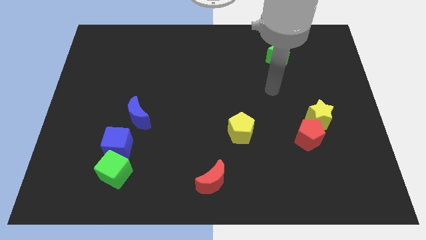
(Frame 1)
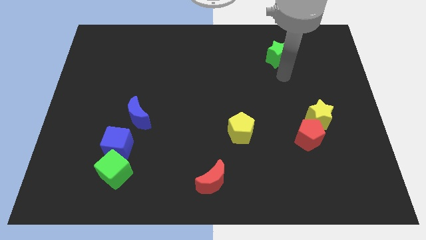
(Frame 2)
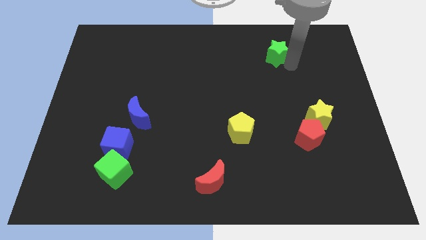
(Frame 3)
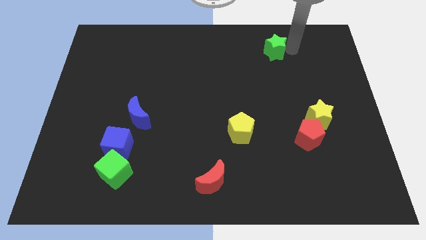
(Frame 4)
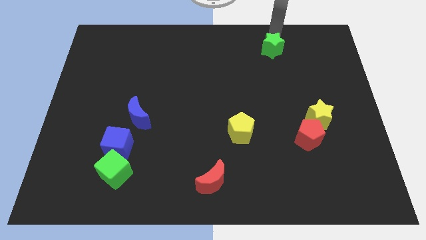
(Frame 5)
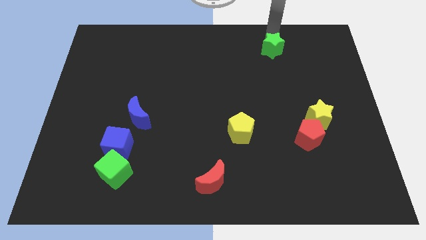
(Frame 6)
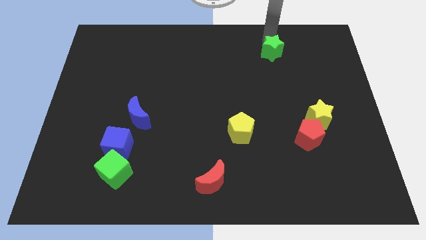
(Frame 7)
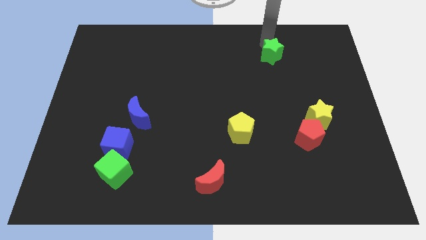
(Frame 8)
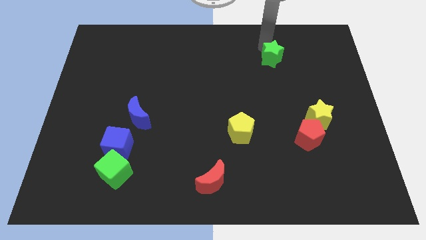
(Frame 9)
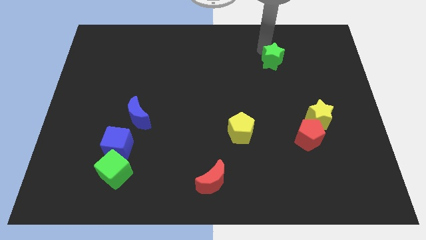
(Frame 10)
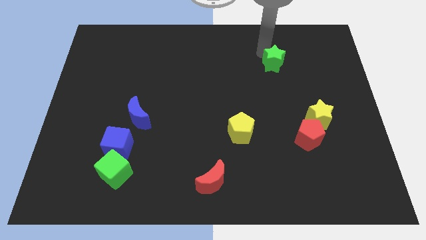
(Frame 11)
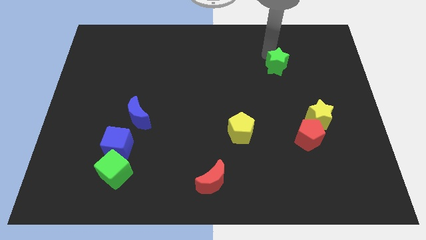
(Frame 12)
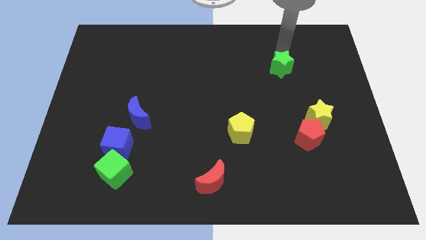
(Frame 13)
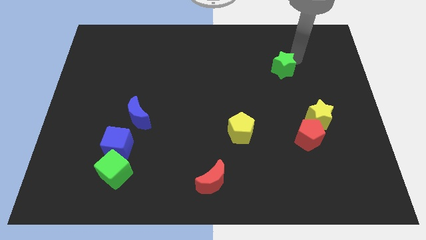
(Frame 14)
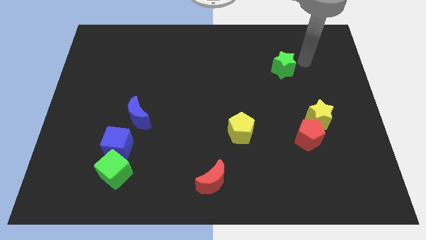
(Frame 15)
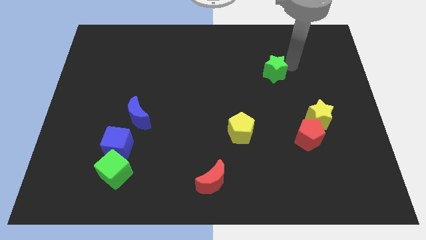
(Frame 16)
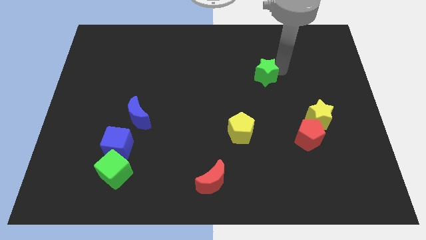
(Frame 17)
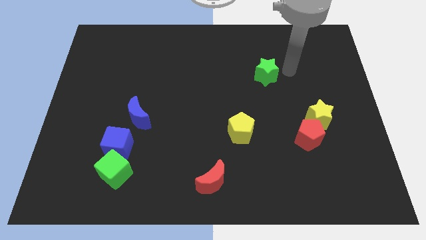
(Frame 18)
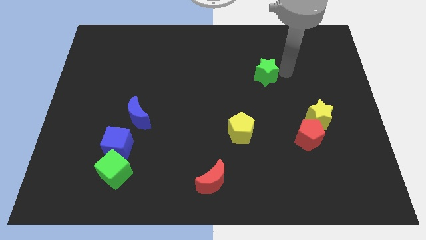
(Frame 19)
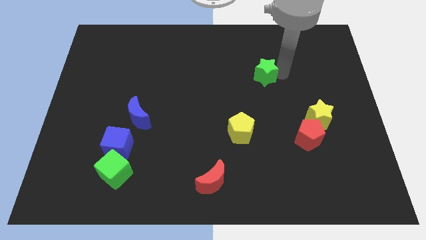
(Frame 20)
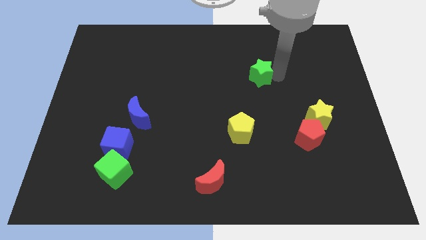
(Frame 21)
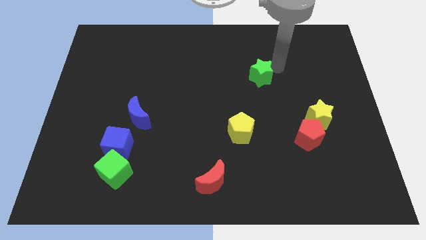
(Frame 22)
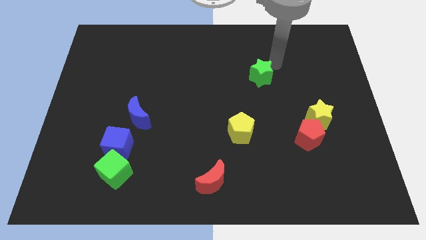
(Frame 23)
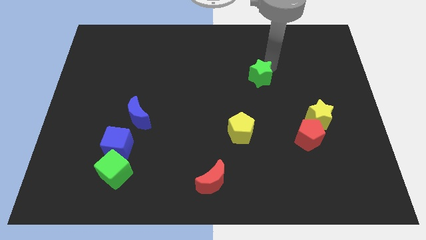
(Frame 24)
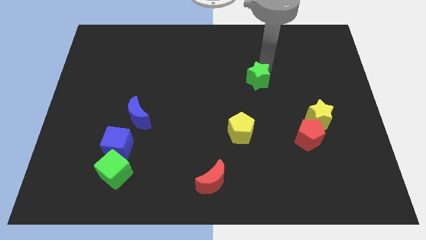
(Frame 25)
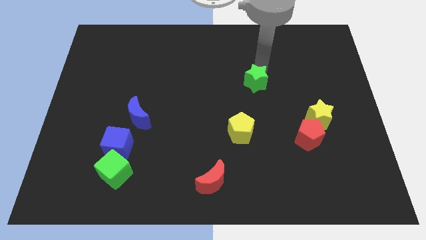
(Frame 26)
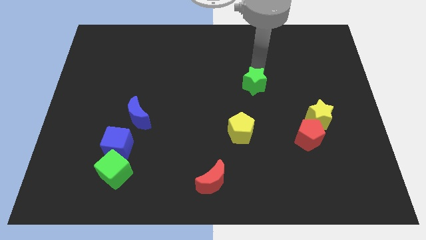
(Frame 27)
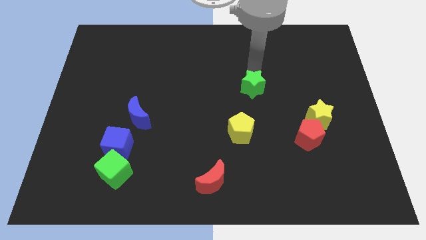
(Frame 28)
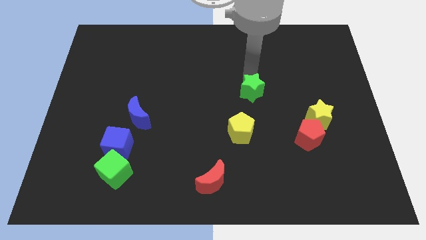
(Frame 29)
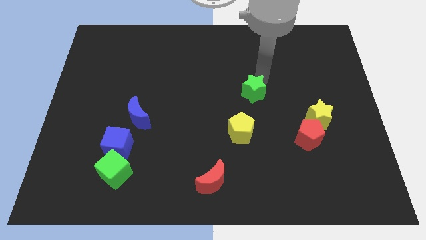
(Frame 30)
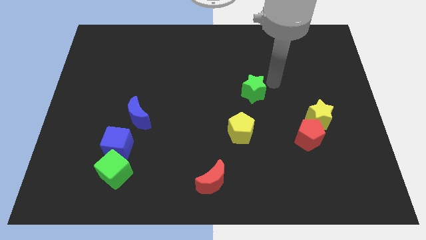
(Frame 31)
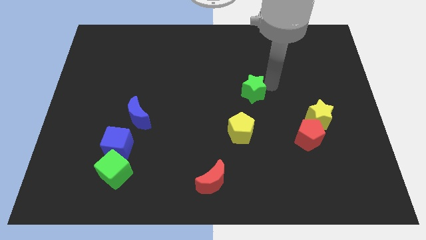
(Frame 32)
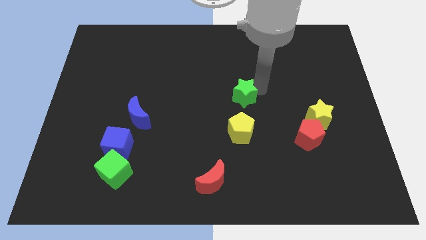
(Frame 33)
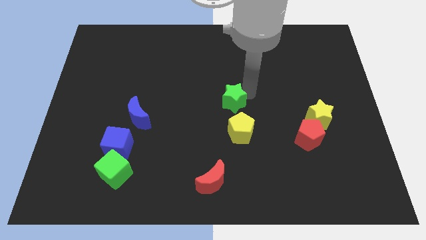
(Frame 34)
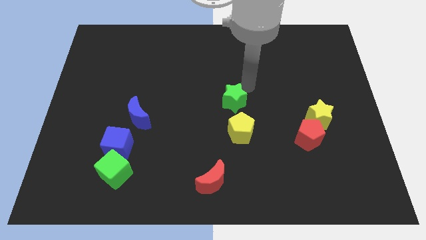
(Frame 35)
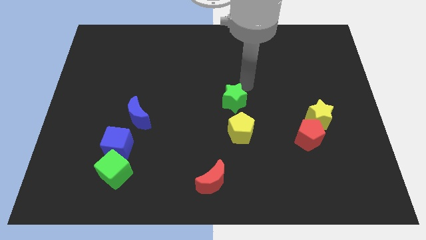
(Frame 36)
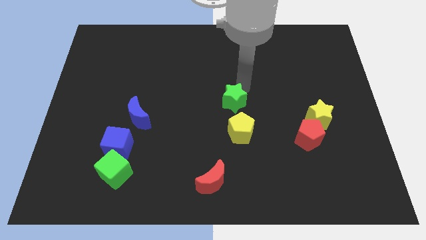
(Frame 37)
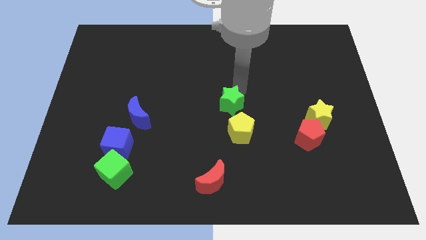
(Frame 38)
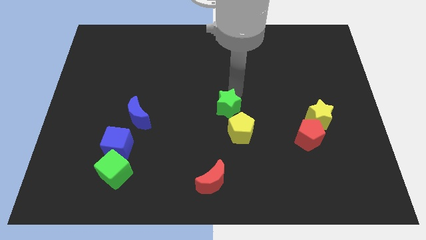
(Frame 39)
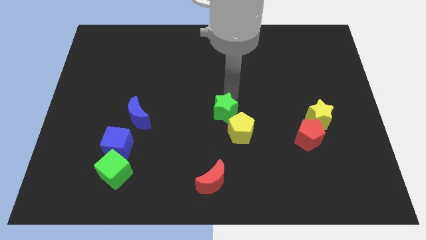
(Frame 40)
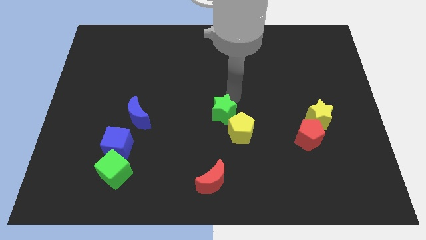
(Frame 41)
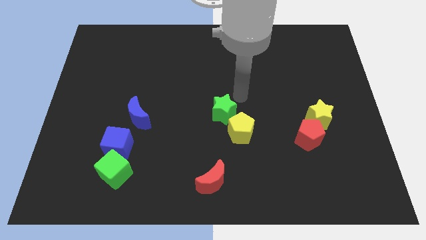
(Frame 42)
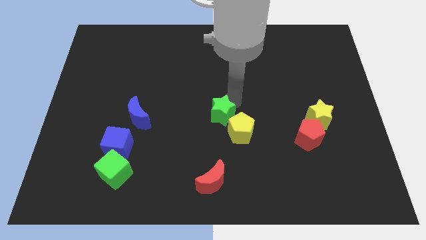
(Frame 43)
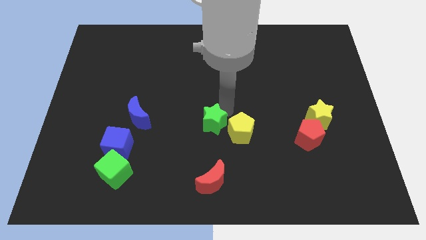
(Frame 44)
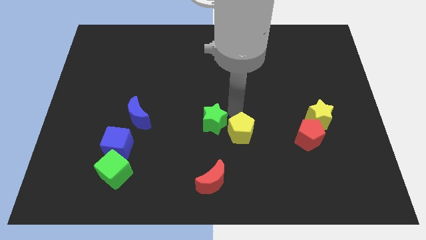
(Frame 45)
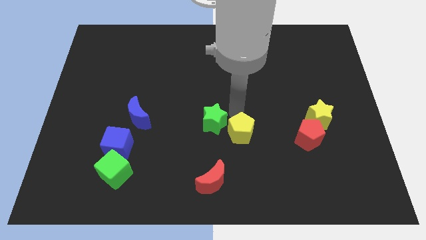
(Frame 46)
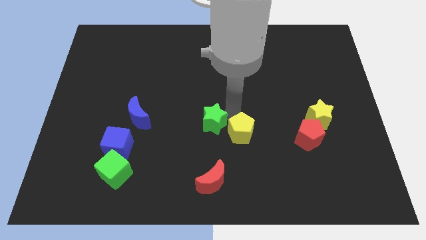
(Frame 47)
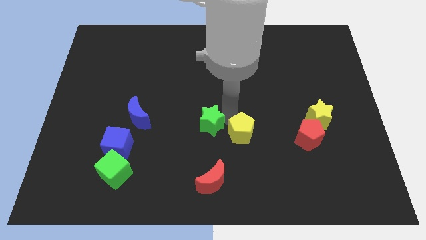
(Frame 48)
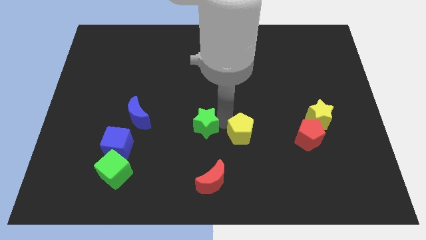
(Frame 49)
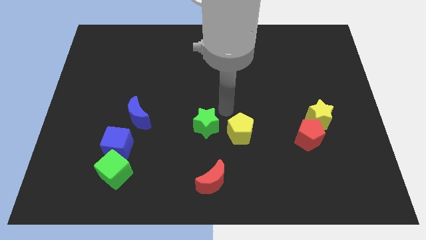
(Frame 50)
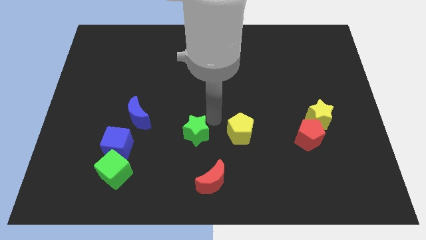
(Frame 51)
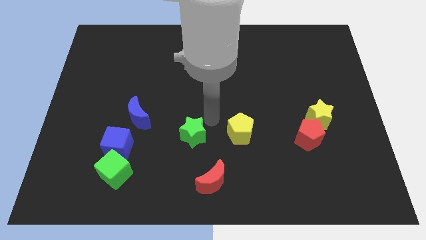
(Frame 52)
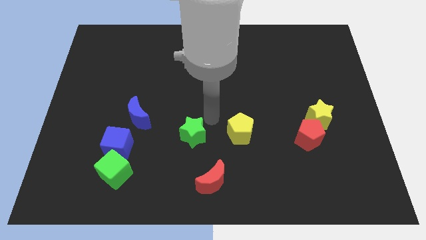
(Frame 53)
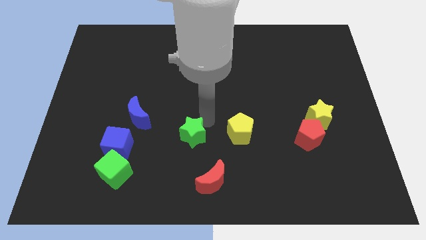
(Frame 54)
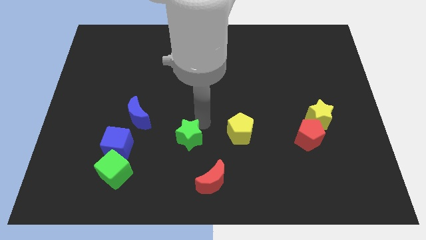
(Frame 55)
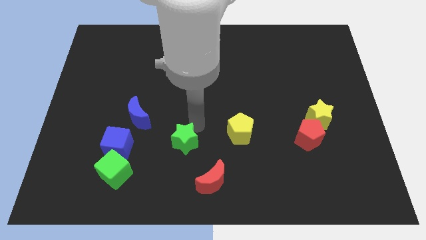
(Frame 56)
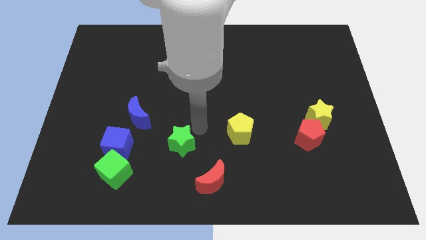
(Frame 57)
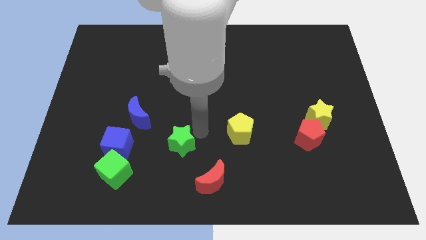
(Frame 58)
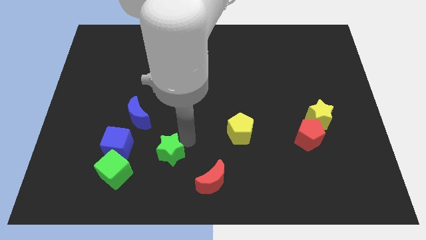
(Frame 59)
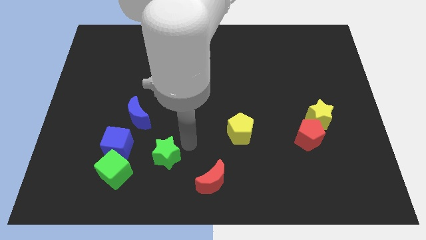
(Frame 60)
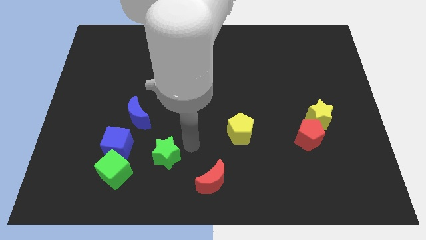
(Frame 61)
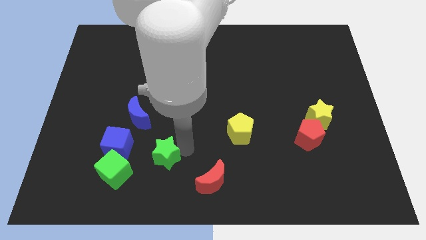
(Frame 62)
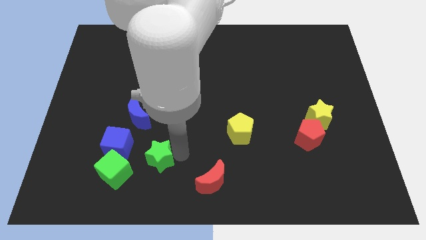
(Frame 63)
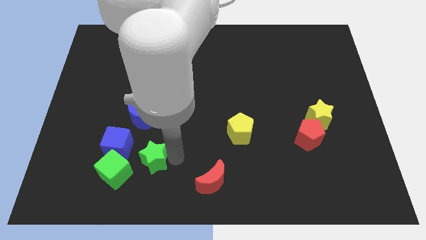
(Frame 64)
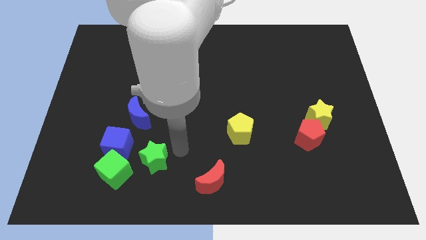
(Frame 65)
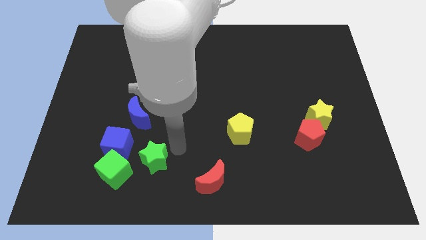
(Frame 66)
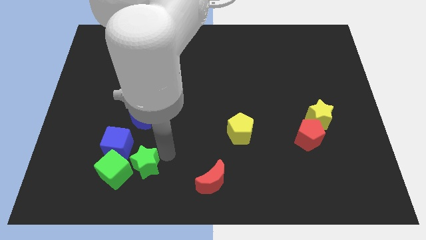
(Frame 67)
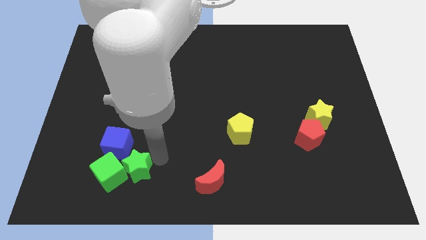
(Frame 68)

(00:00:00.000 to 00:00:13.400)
push the green star close to the green cube

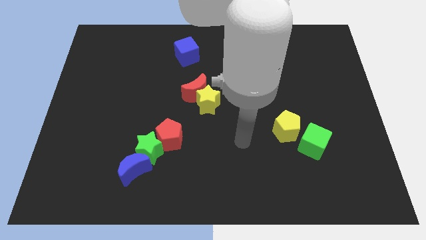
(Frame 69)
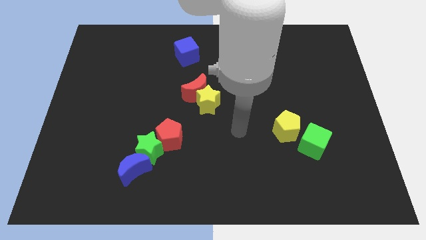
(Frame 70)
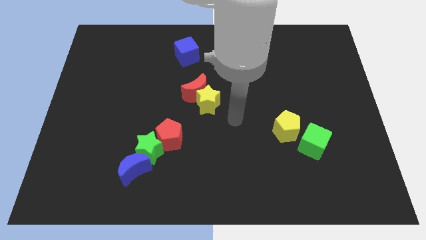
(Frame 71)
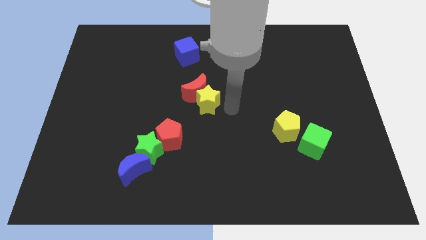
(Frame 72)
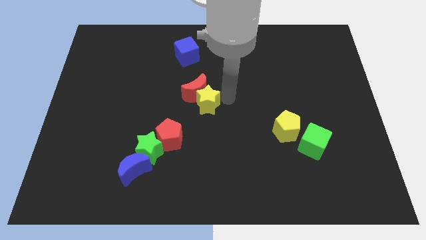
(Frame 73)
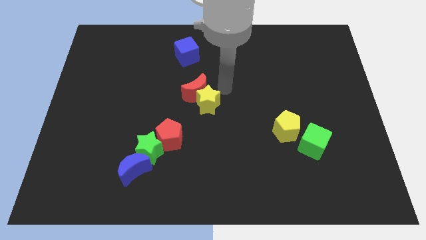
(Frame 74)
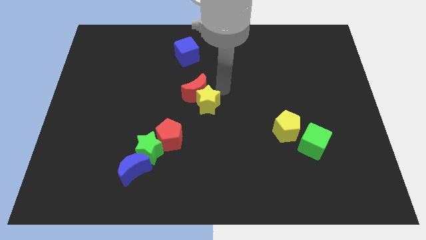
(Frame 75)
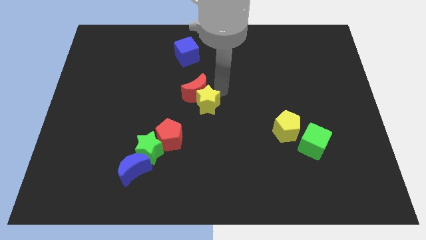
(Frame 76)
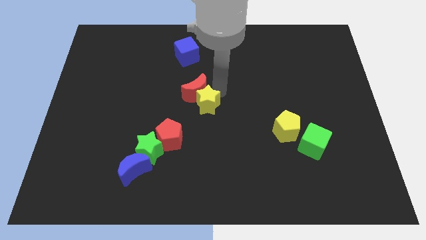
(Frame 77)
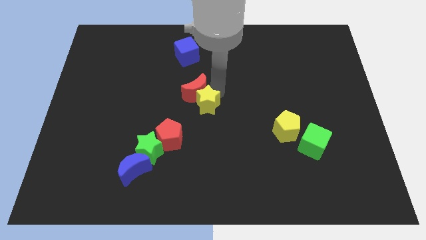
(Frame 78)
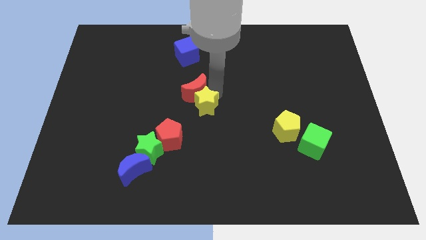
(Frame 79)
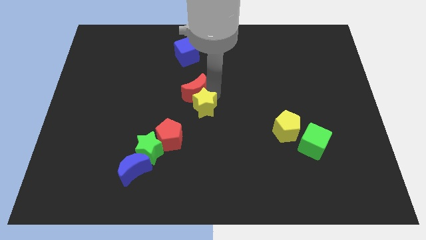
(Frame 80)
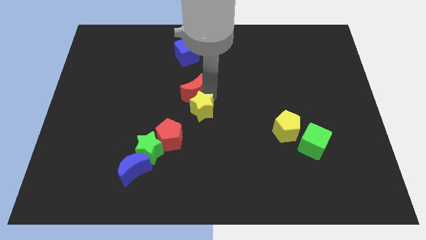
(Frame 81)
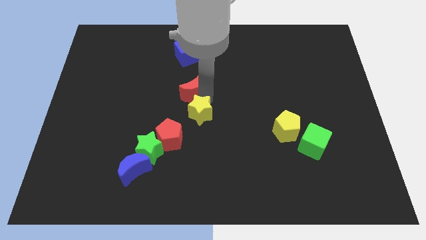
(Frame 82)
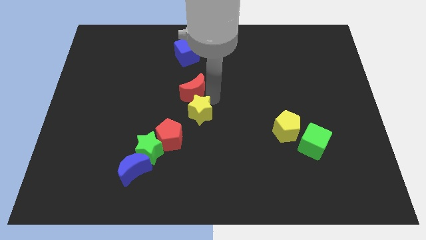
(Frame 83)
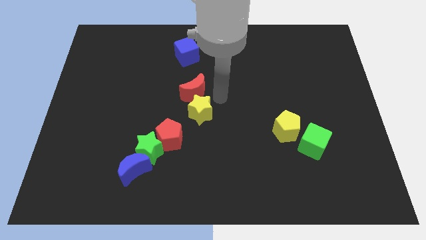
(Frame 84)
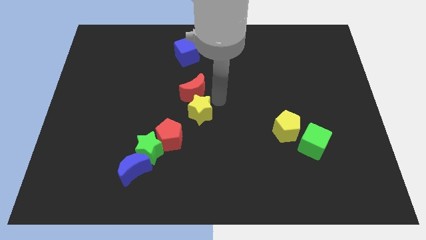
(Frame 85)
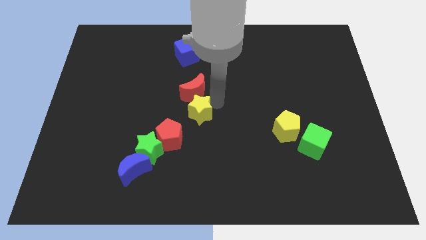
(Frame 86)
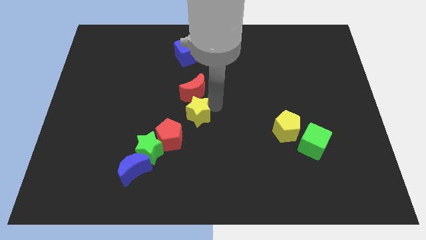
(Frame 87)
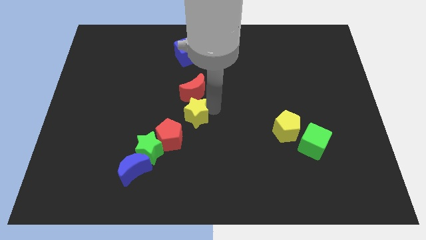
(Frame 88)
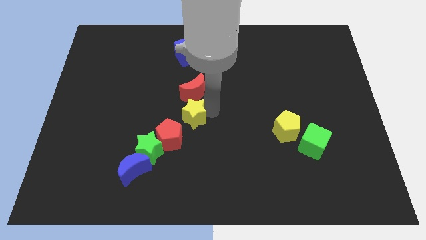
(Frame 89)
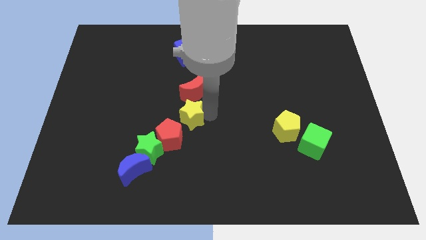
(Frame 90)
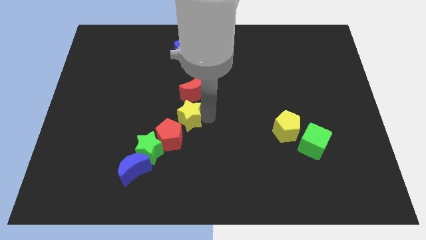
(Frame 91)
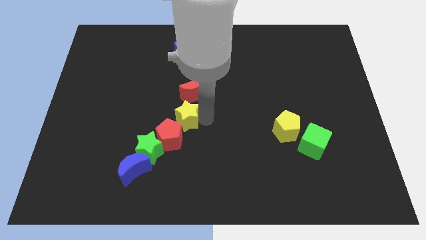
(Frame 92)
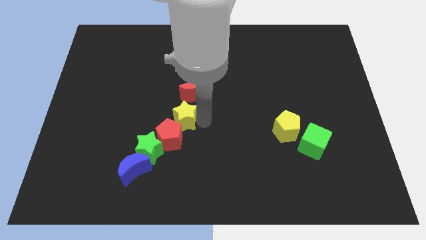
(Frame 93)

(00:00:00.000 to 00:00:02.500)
put the yellow star to the red pentagon
